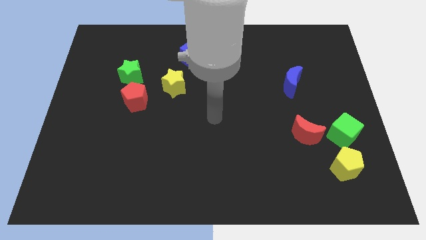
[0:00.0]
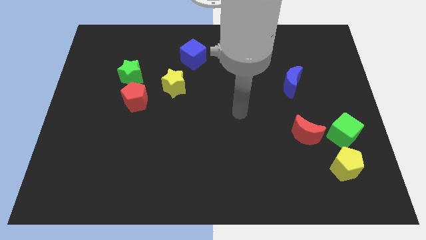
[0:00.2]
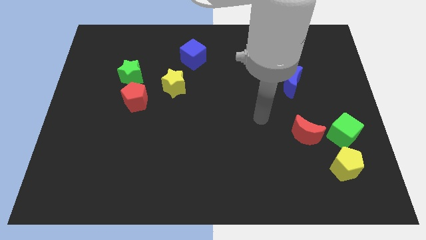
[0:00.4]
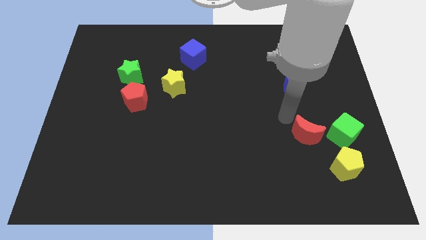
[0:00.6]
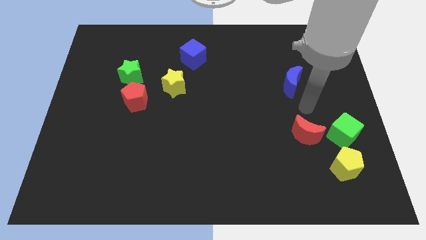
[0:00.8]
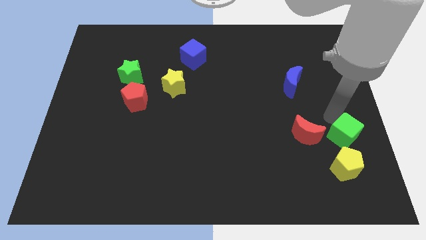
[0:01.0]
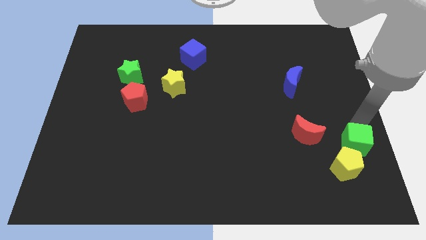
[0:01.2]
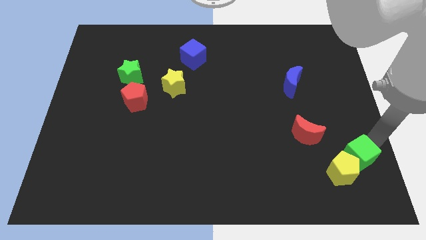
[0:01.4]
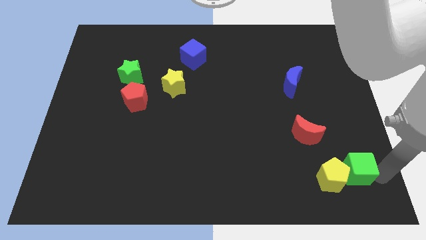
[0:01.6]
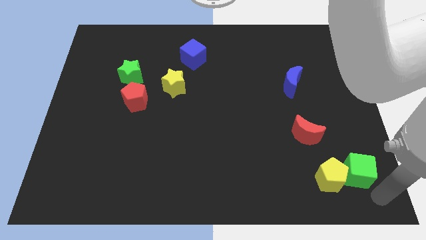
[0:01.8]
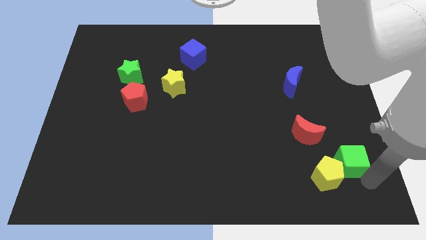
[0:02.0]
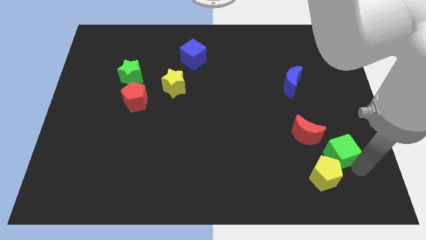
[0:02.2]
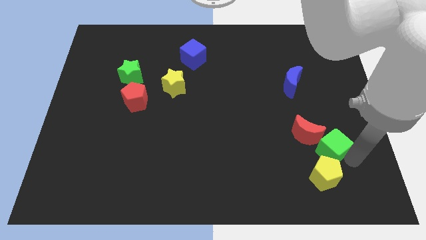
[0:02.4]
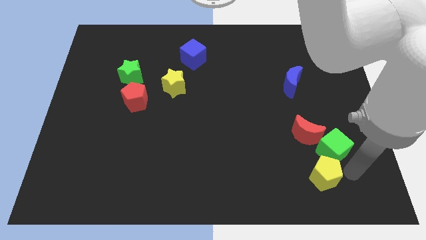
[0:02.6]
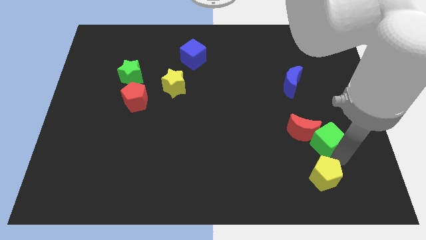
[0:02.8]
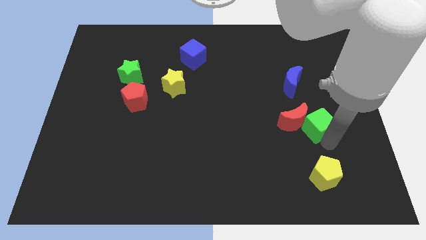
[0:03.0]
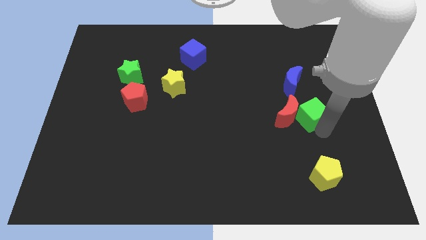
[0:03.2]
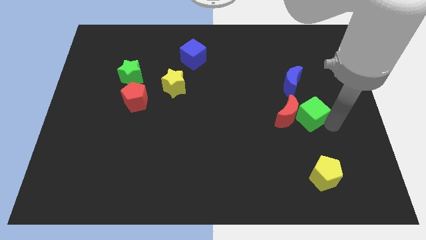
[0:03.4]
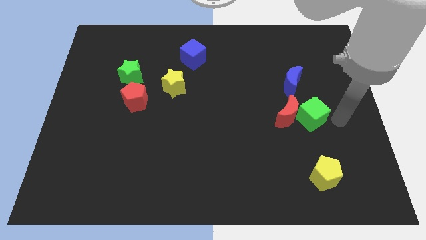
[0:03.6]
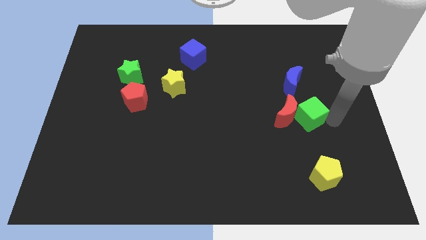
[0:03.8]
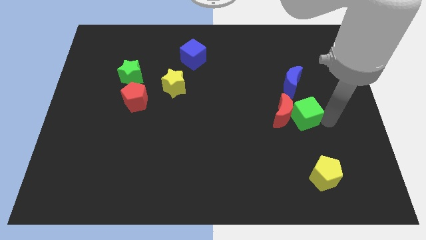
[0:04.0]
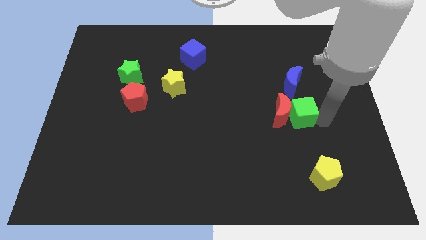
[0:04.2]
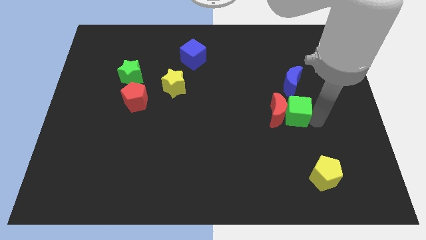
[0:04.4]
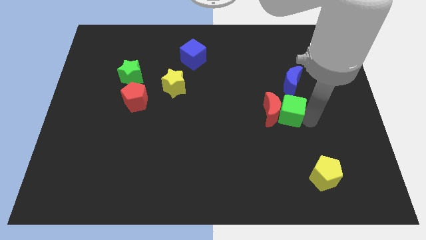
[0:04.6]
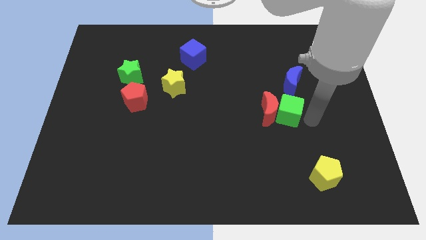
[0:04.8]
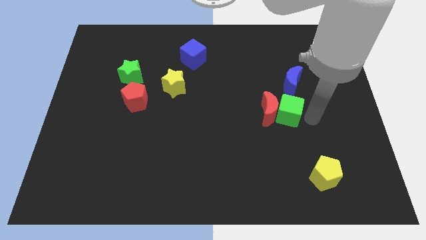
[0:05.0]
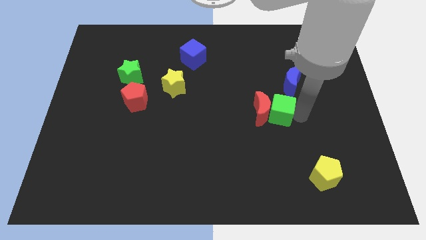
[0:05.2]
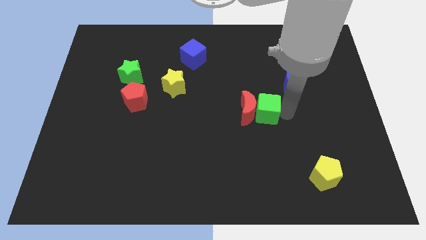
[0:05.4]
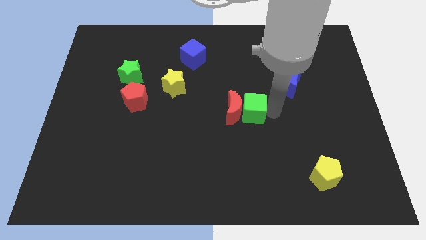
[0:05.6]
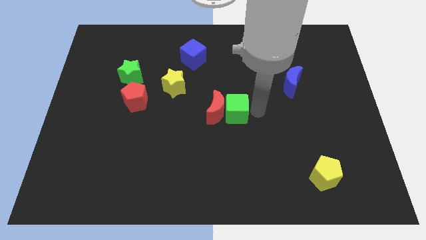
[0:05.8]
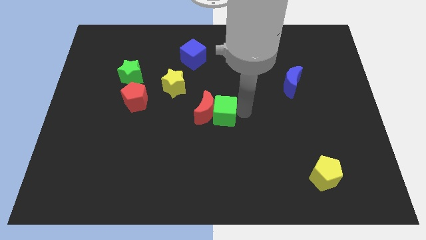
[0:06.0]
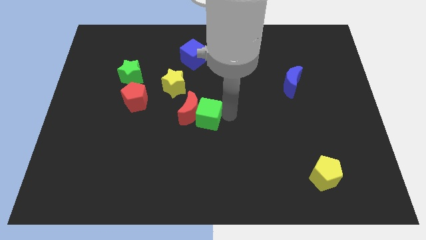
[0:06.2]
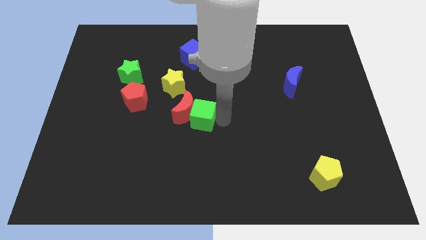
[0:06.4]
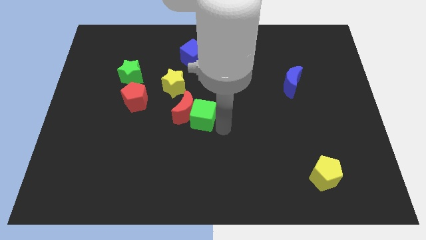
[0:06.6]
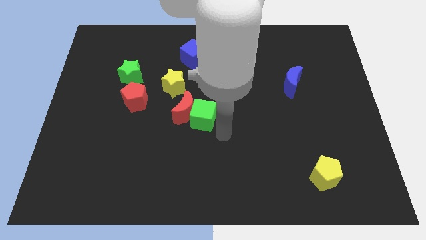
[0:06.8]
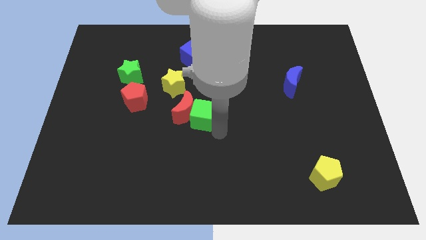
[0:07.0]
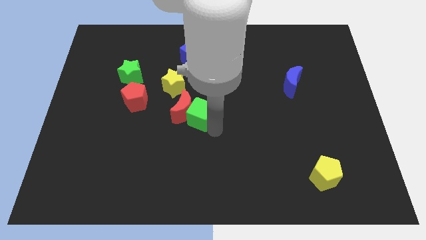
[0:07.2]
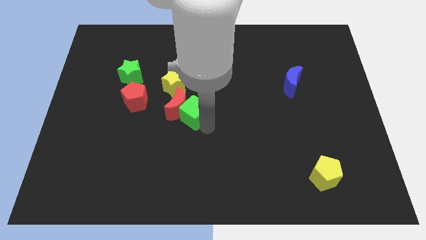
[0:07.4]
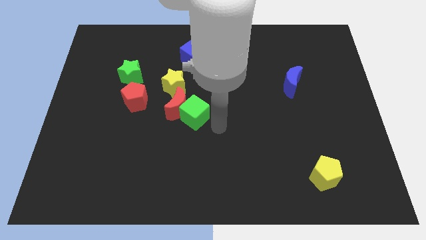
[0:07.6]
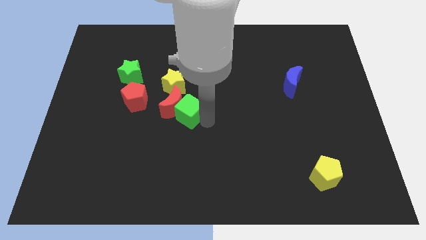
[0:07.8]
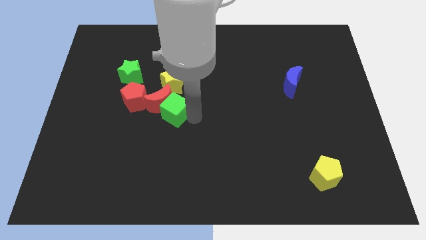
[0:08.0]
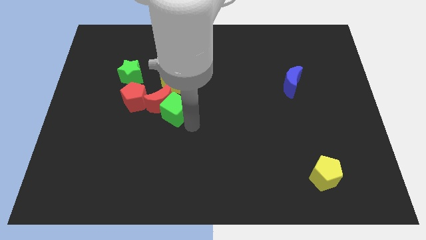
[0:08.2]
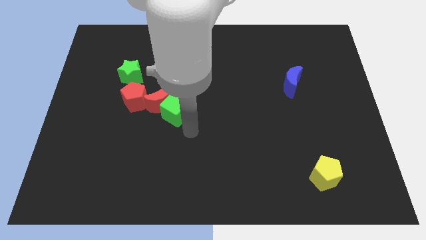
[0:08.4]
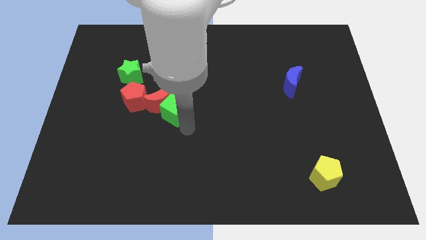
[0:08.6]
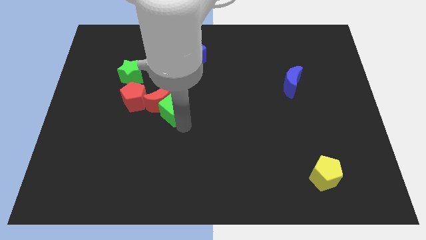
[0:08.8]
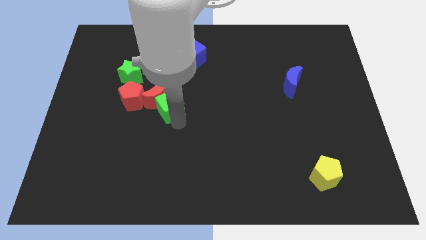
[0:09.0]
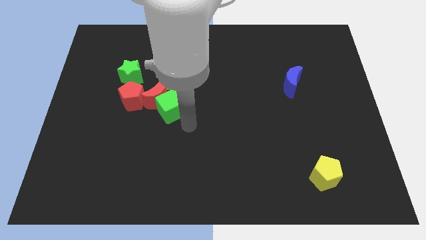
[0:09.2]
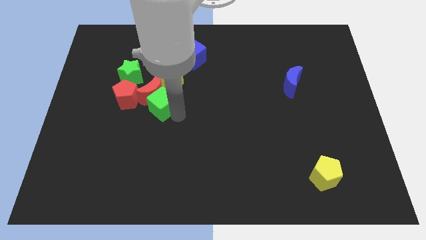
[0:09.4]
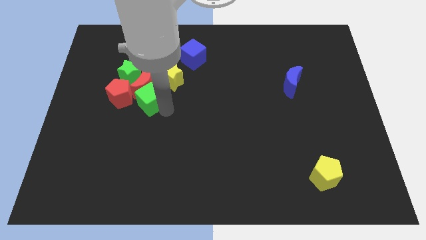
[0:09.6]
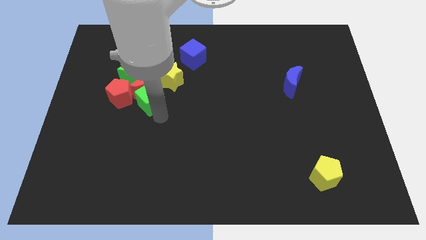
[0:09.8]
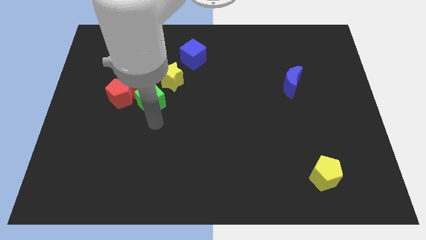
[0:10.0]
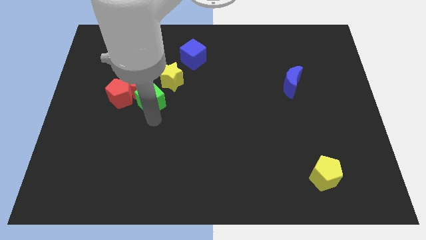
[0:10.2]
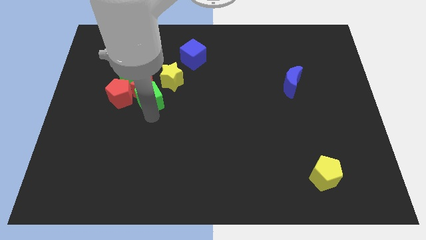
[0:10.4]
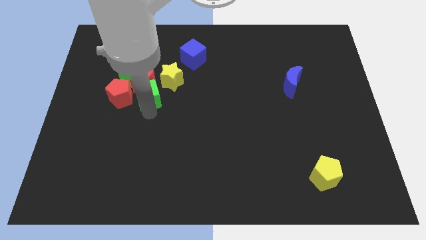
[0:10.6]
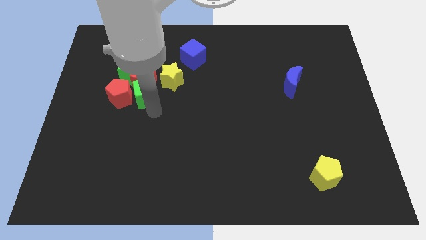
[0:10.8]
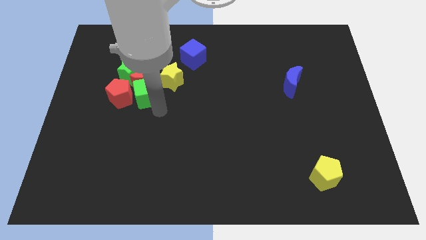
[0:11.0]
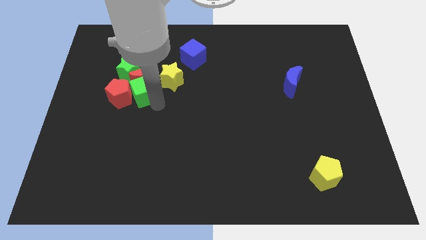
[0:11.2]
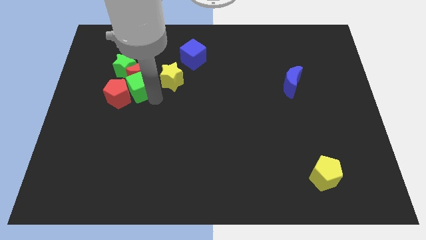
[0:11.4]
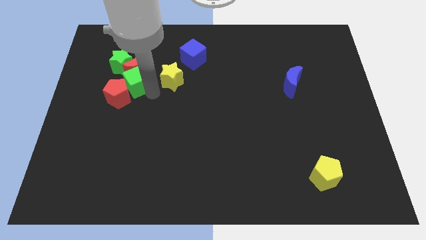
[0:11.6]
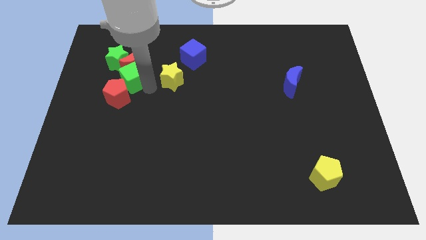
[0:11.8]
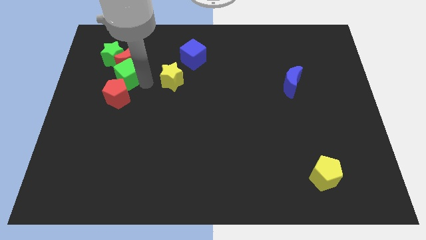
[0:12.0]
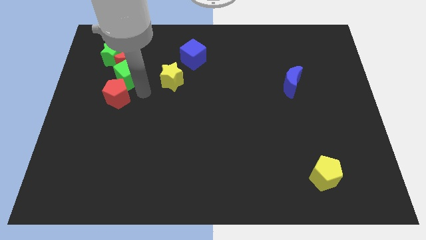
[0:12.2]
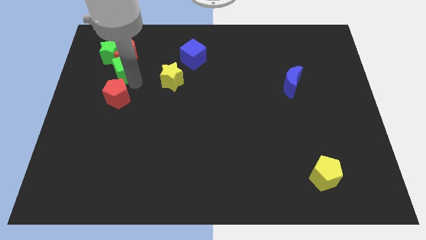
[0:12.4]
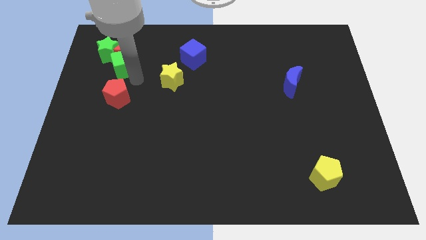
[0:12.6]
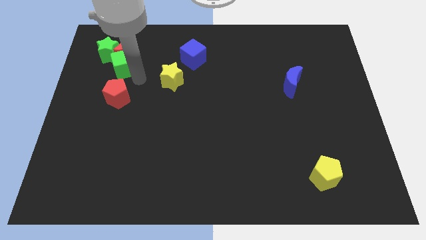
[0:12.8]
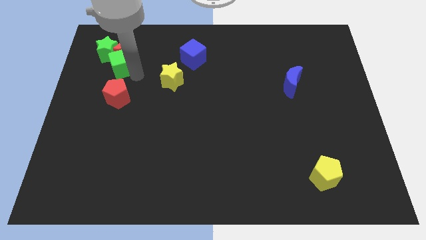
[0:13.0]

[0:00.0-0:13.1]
move the green cube close to the green star

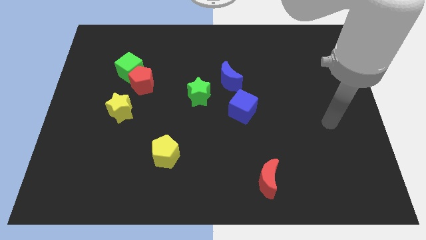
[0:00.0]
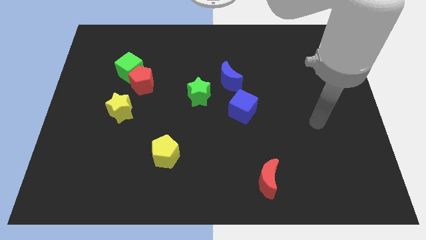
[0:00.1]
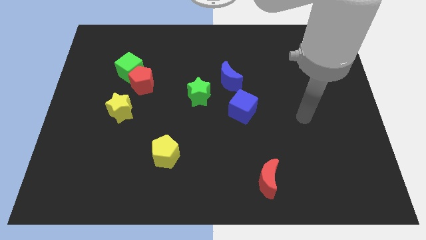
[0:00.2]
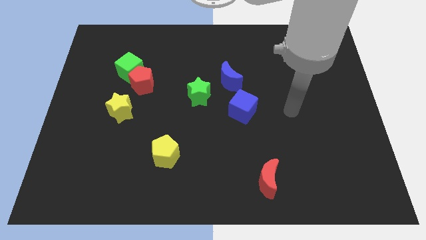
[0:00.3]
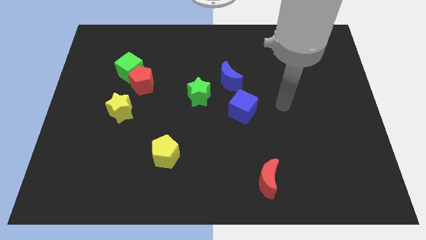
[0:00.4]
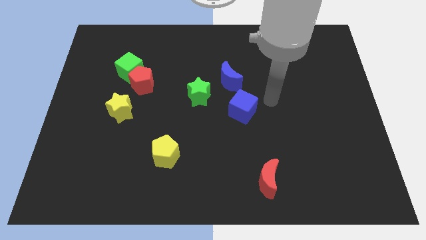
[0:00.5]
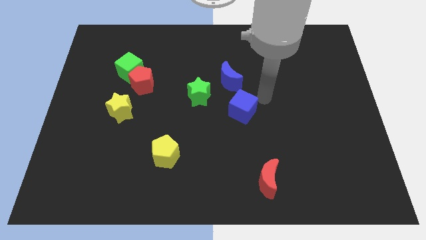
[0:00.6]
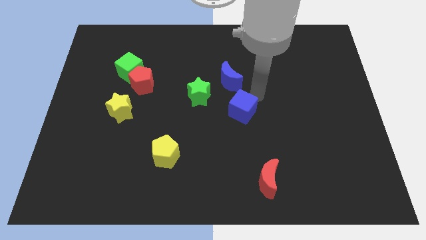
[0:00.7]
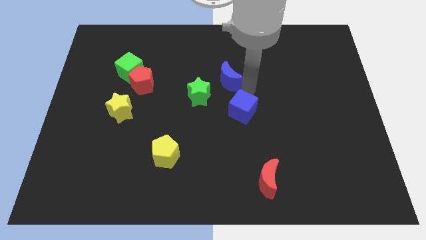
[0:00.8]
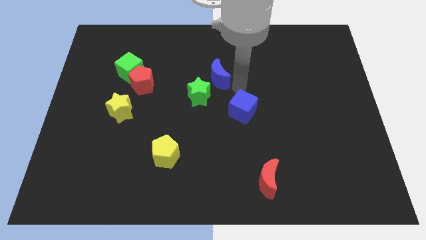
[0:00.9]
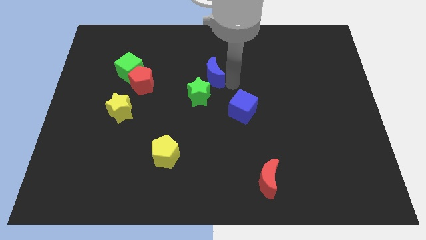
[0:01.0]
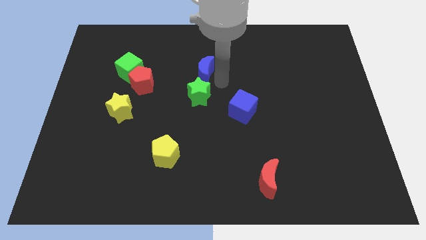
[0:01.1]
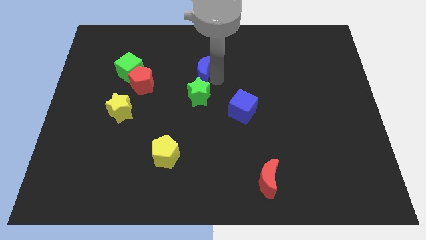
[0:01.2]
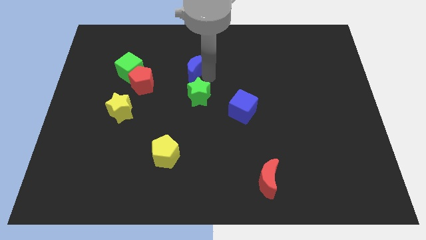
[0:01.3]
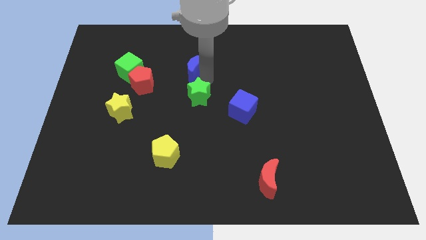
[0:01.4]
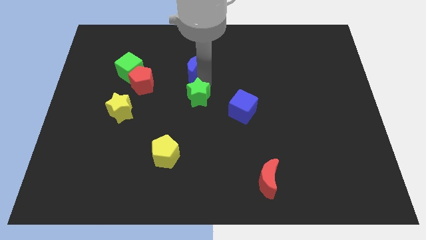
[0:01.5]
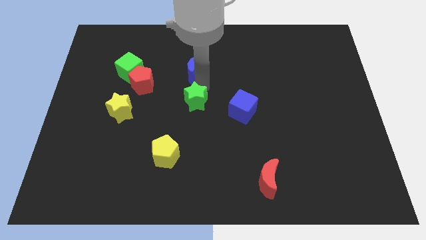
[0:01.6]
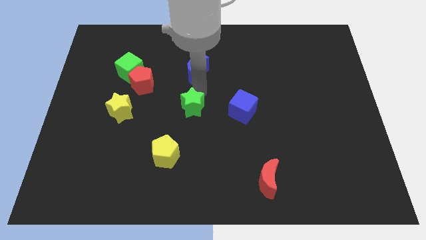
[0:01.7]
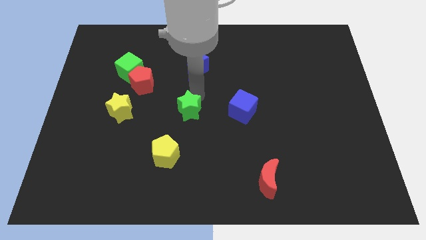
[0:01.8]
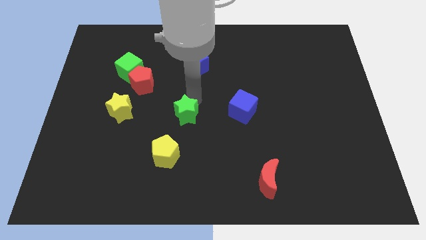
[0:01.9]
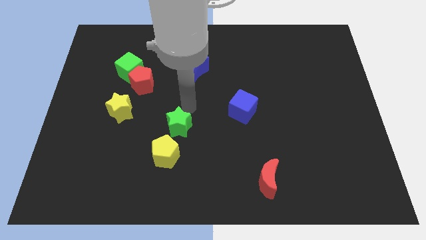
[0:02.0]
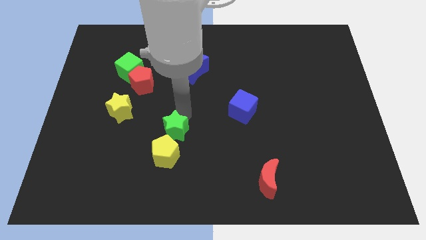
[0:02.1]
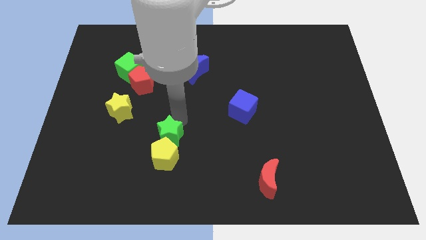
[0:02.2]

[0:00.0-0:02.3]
slide the green star next to the yellow pentagon
